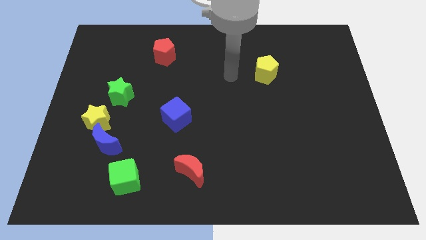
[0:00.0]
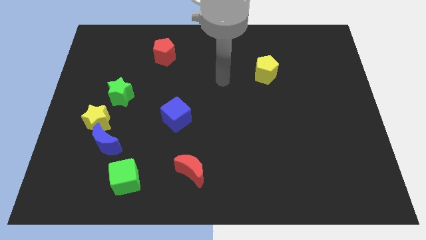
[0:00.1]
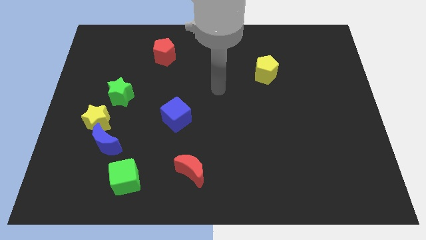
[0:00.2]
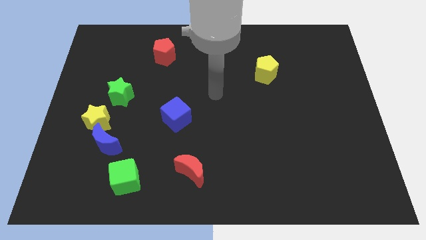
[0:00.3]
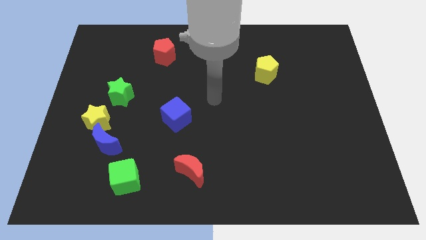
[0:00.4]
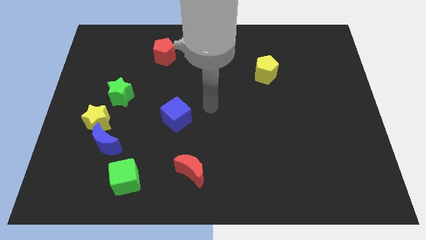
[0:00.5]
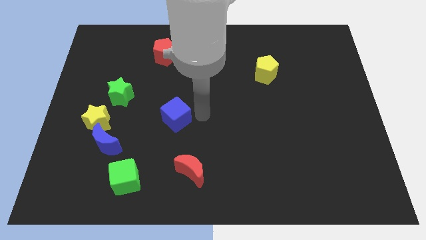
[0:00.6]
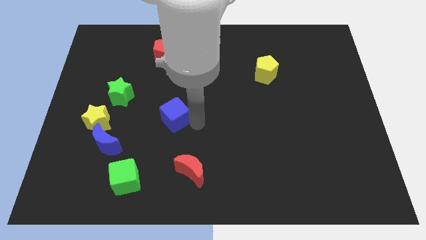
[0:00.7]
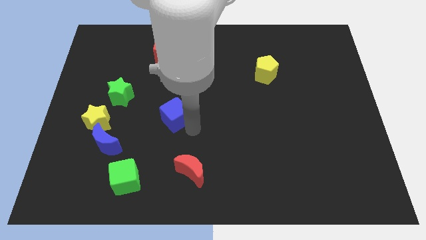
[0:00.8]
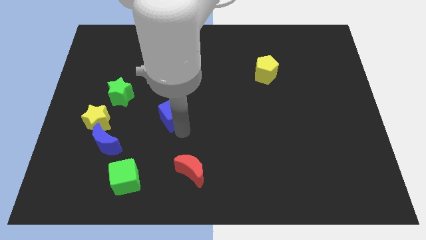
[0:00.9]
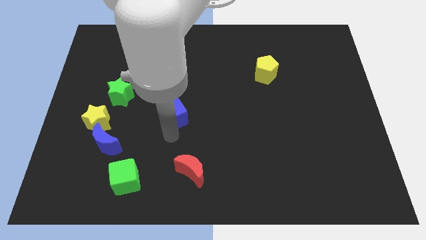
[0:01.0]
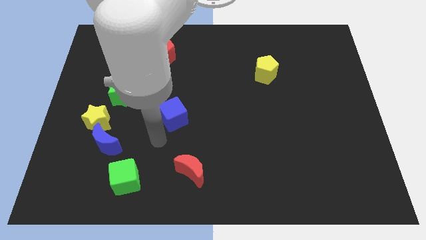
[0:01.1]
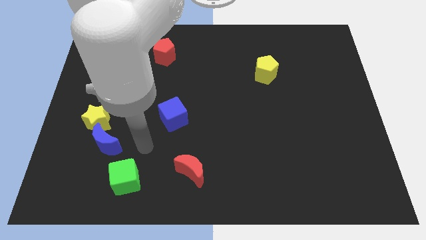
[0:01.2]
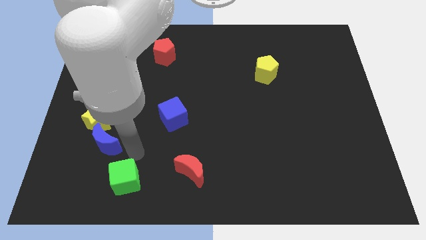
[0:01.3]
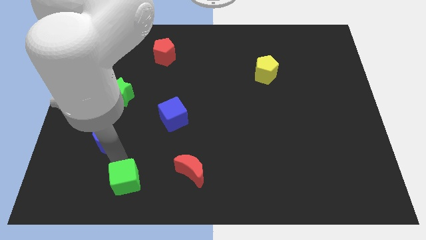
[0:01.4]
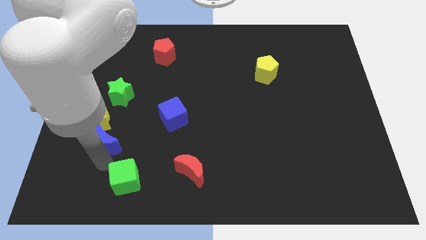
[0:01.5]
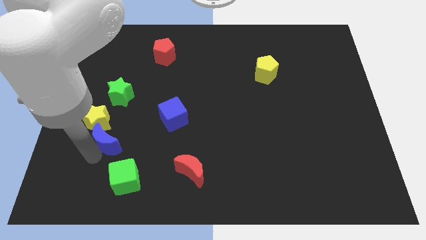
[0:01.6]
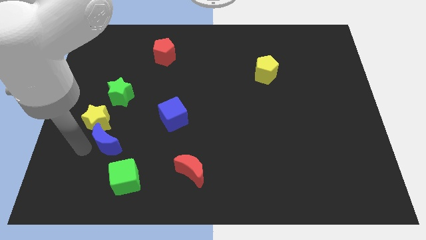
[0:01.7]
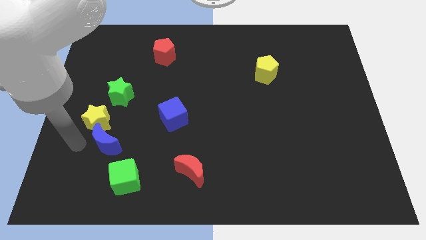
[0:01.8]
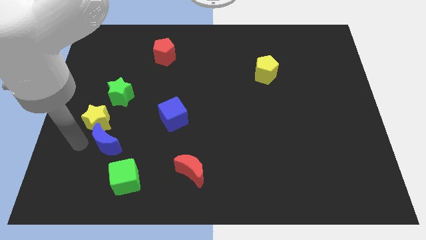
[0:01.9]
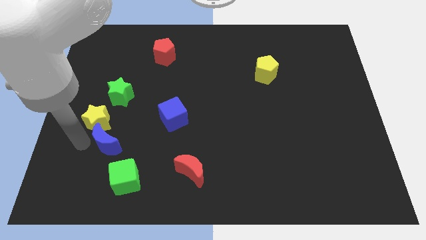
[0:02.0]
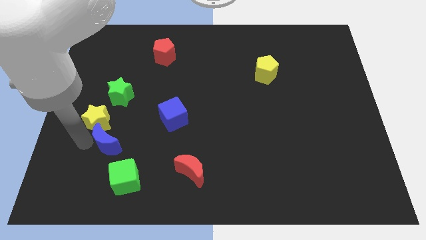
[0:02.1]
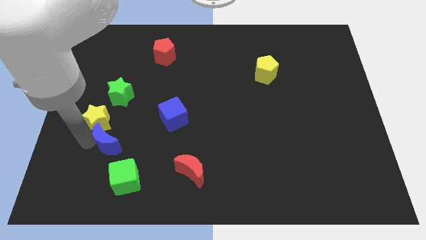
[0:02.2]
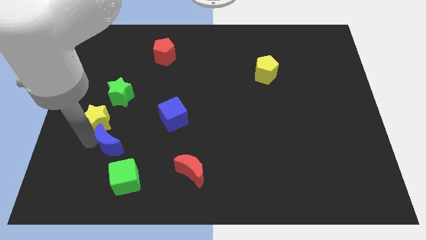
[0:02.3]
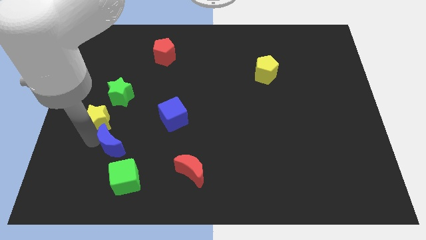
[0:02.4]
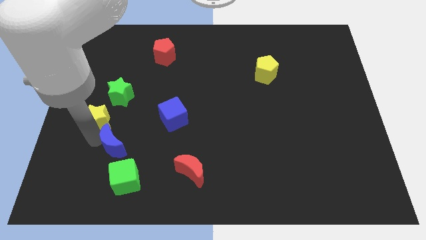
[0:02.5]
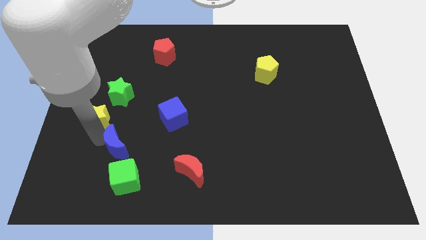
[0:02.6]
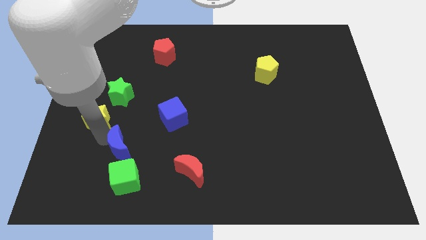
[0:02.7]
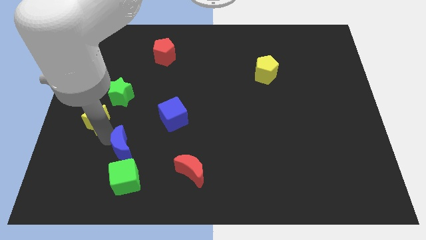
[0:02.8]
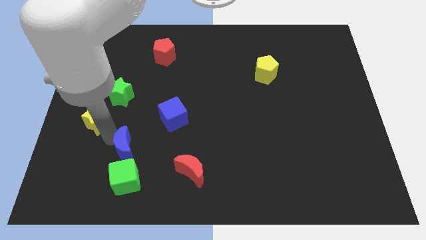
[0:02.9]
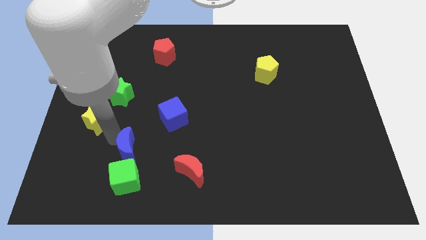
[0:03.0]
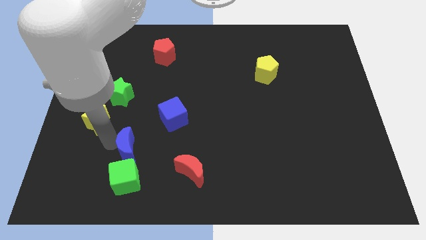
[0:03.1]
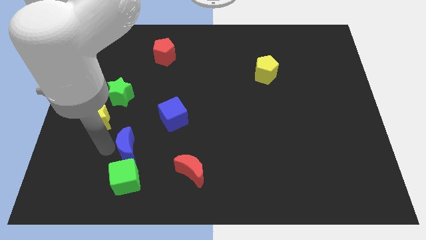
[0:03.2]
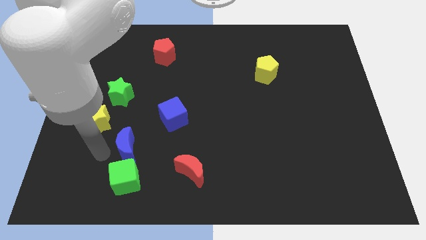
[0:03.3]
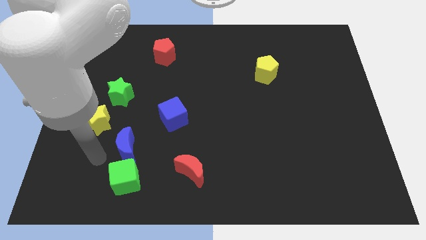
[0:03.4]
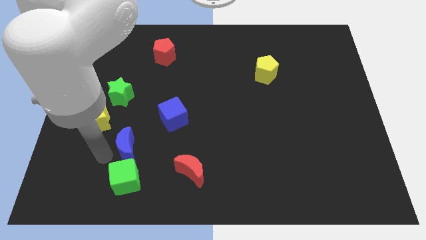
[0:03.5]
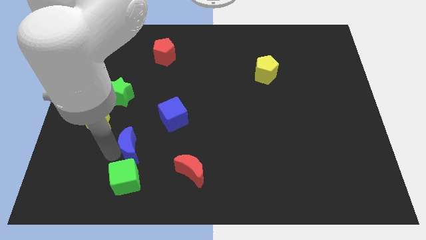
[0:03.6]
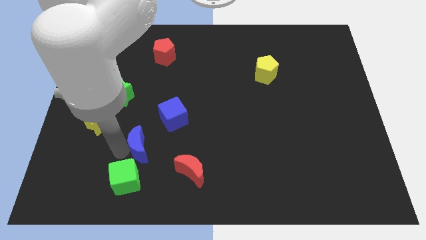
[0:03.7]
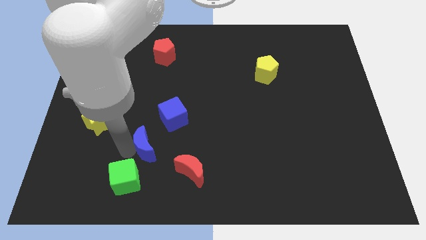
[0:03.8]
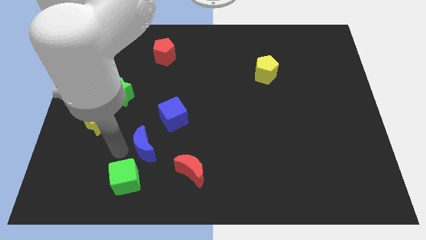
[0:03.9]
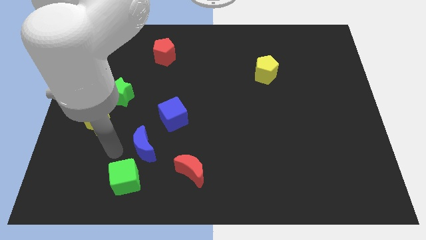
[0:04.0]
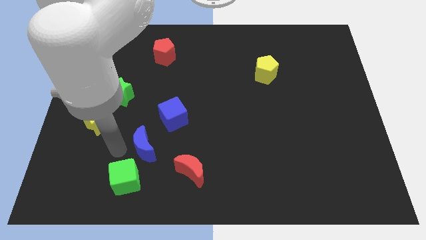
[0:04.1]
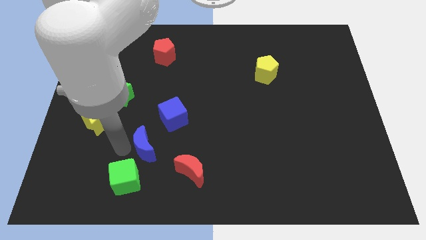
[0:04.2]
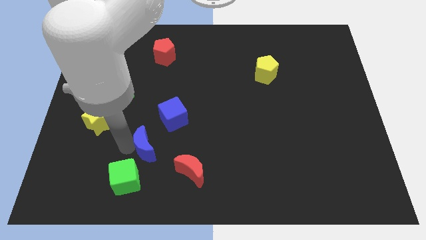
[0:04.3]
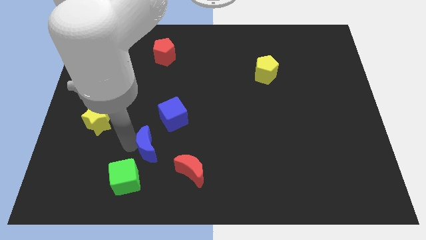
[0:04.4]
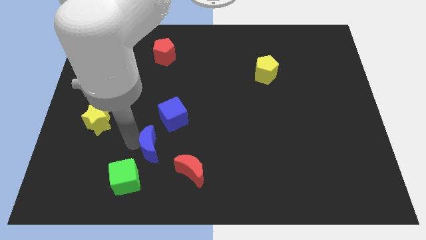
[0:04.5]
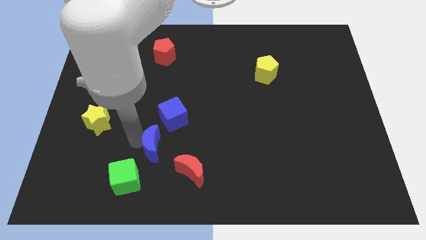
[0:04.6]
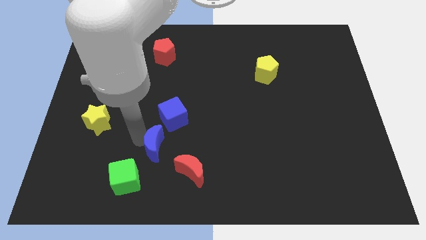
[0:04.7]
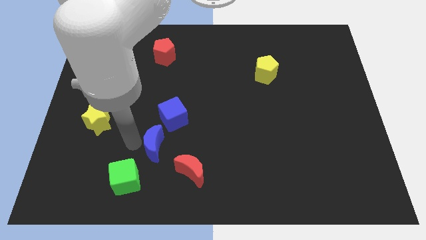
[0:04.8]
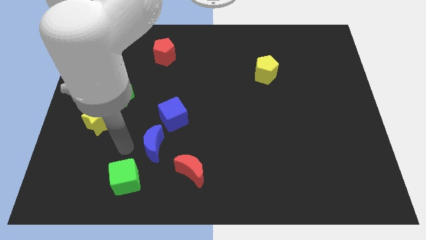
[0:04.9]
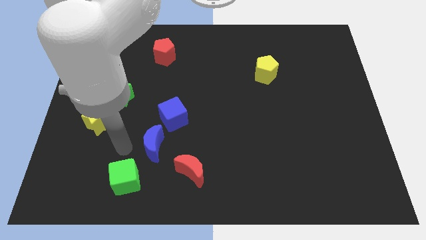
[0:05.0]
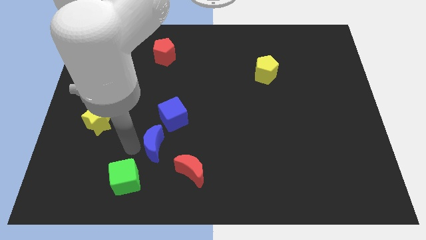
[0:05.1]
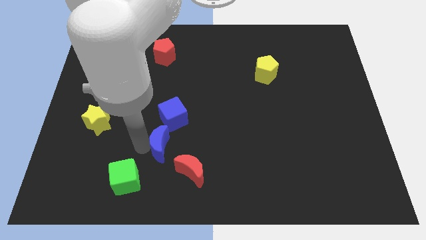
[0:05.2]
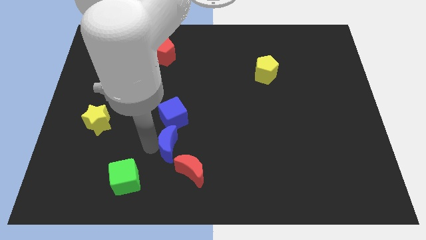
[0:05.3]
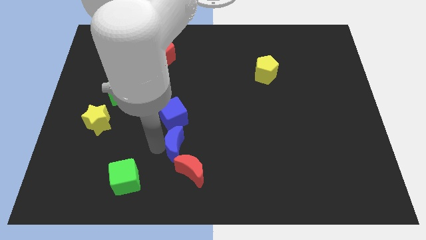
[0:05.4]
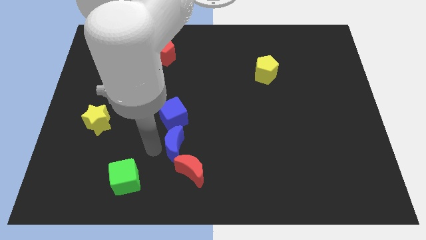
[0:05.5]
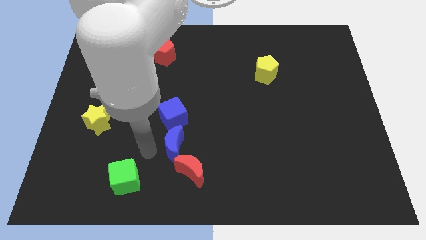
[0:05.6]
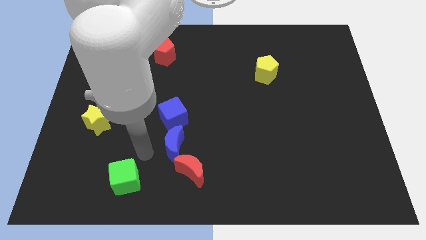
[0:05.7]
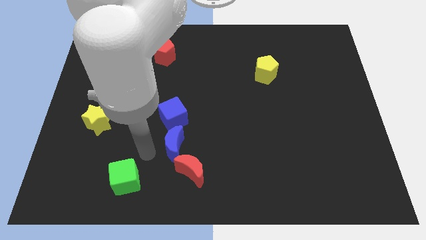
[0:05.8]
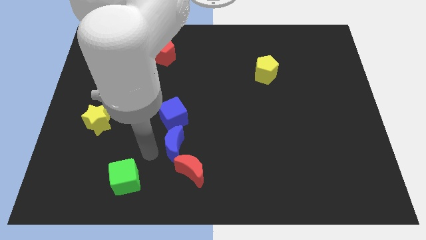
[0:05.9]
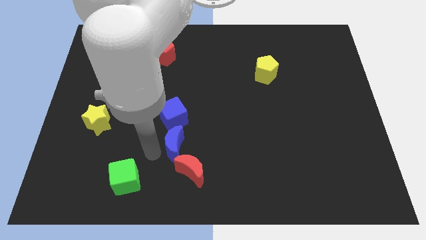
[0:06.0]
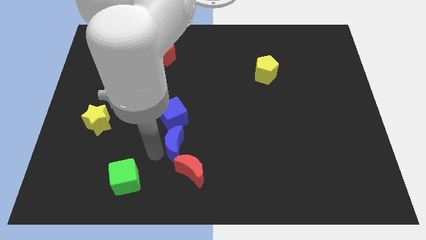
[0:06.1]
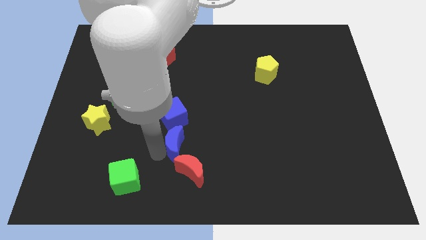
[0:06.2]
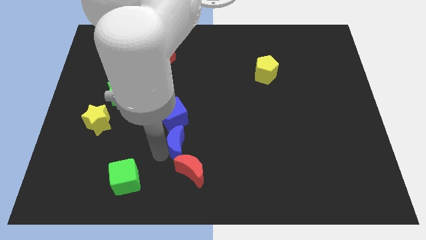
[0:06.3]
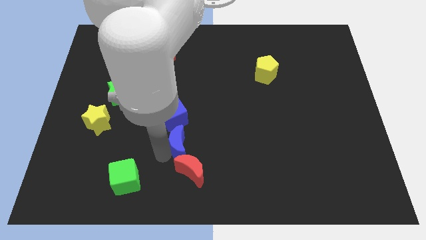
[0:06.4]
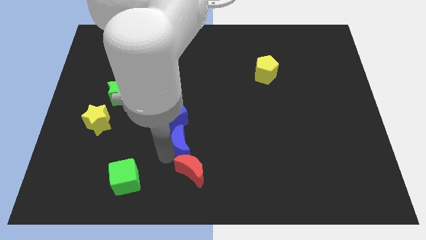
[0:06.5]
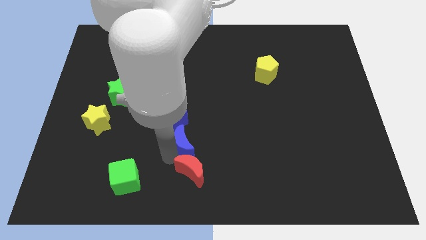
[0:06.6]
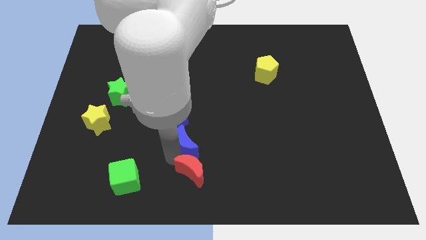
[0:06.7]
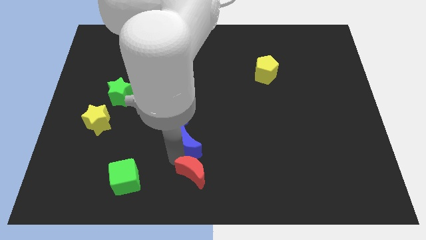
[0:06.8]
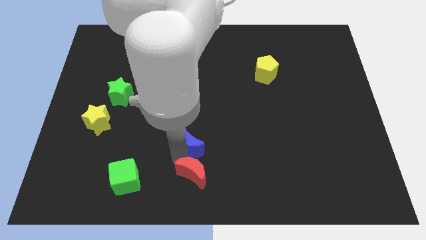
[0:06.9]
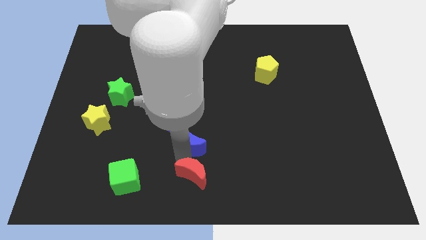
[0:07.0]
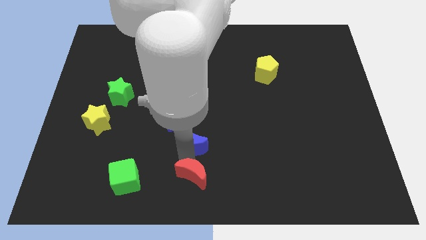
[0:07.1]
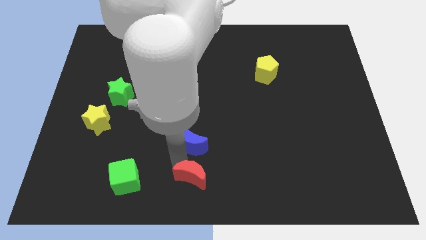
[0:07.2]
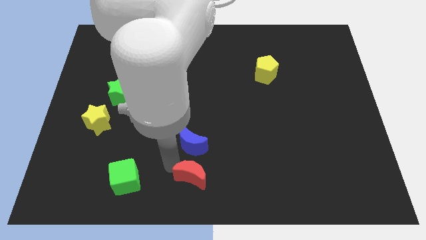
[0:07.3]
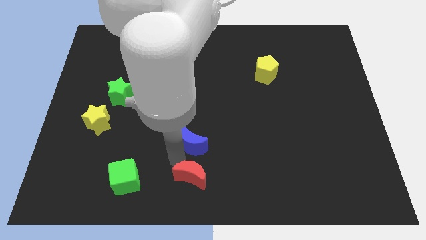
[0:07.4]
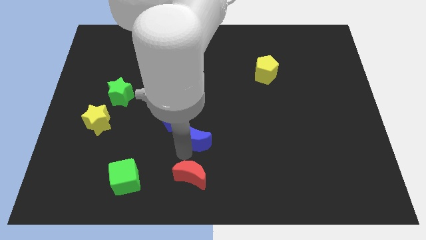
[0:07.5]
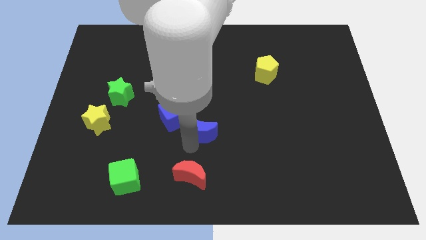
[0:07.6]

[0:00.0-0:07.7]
push the blue moon to the right of the blue cube
